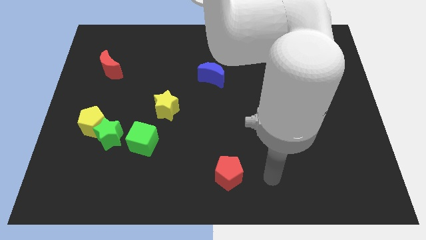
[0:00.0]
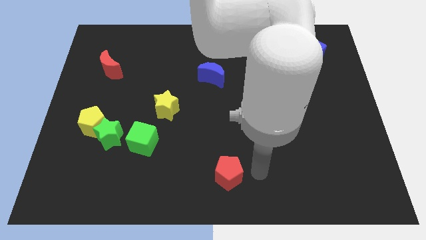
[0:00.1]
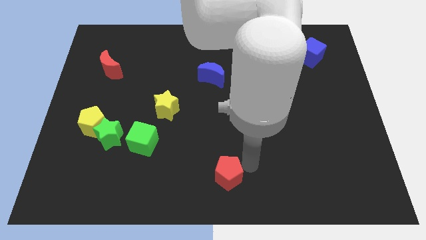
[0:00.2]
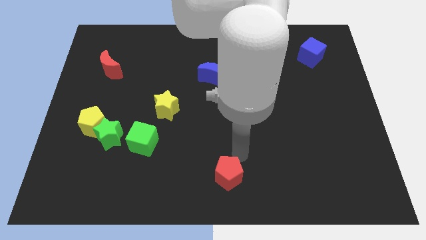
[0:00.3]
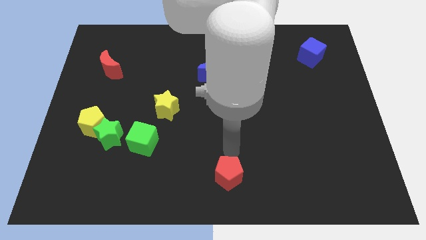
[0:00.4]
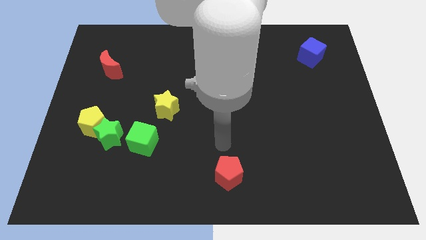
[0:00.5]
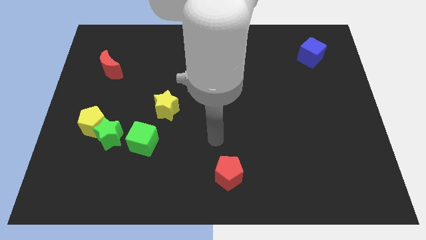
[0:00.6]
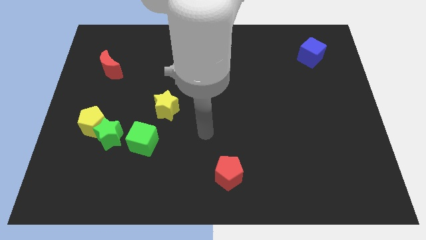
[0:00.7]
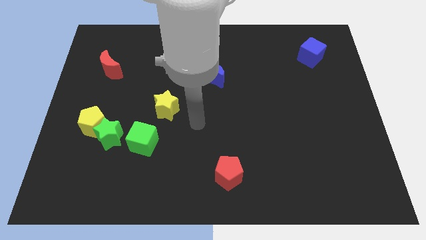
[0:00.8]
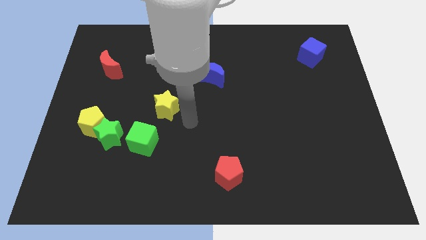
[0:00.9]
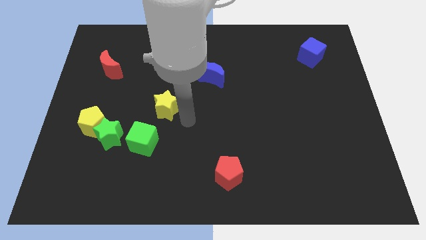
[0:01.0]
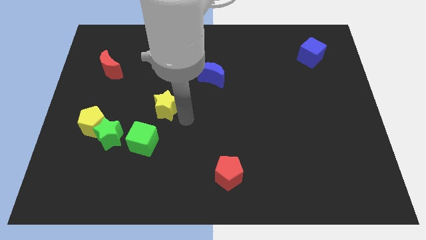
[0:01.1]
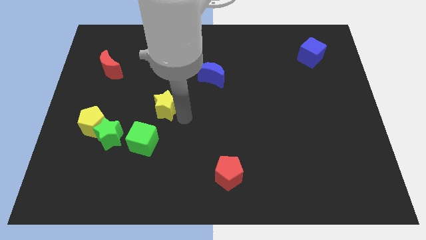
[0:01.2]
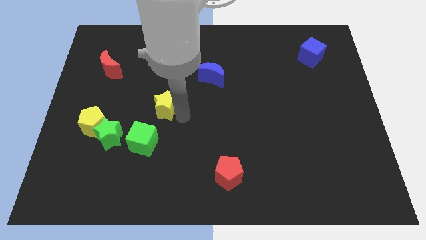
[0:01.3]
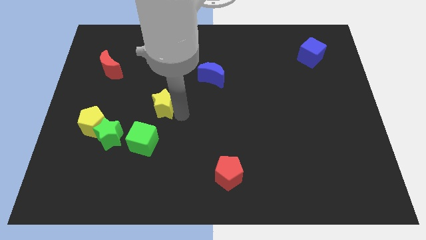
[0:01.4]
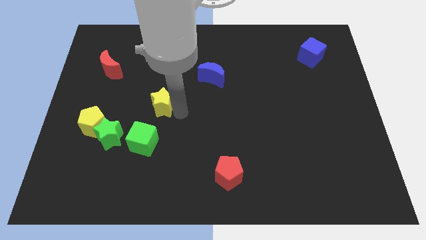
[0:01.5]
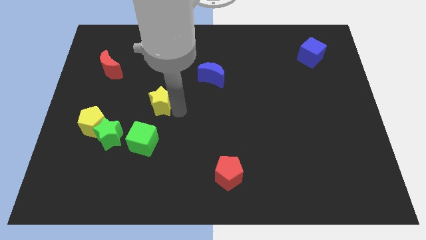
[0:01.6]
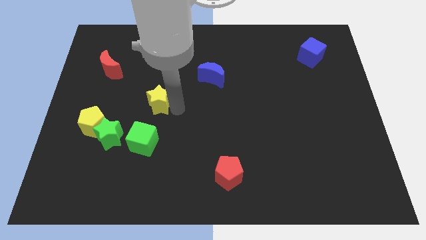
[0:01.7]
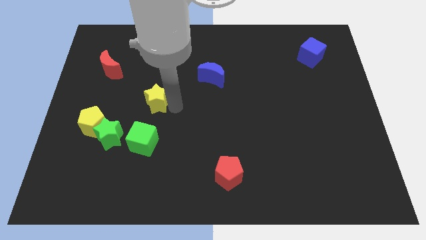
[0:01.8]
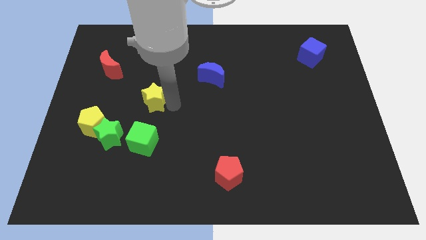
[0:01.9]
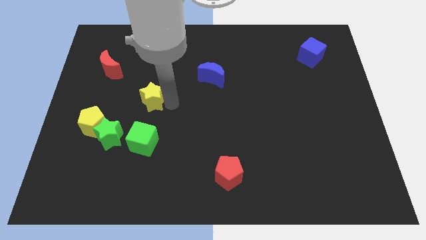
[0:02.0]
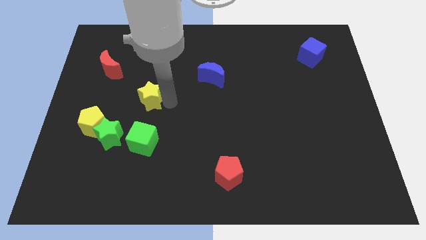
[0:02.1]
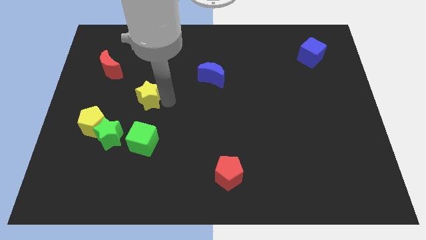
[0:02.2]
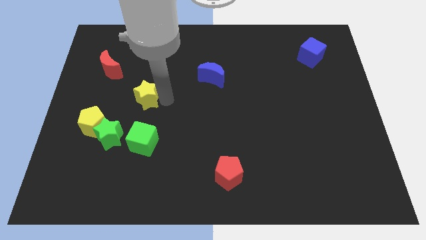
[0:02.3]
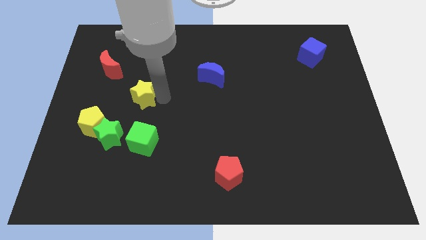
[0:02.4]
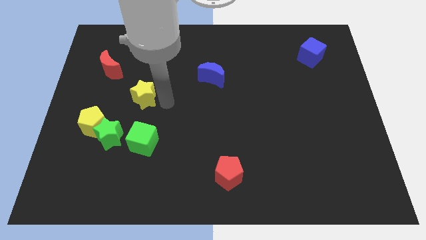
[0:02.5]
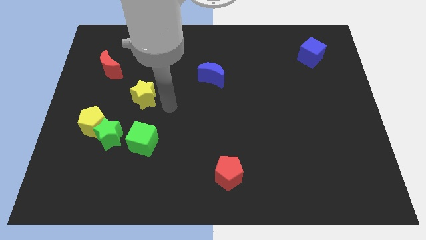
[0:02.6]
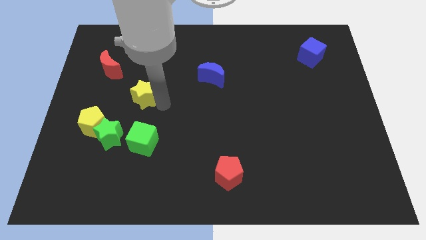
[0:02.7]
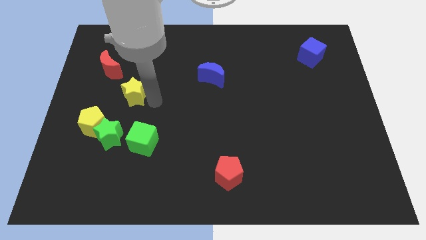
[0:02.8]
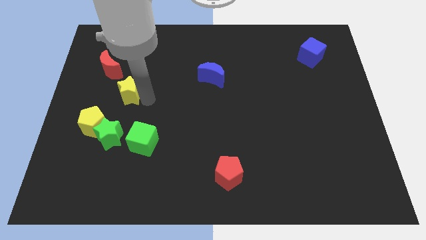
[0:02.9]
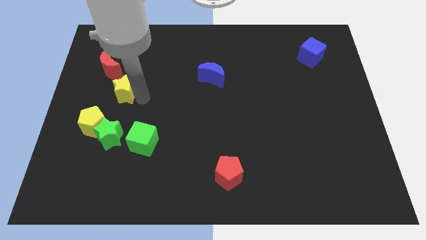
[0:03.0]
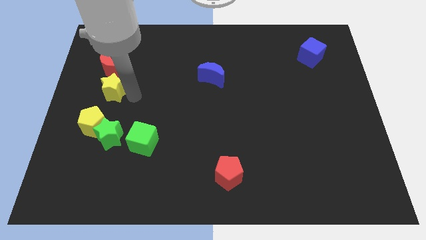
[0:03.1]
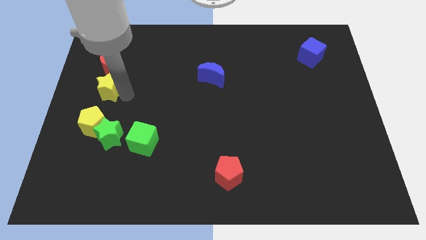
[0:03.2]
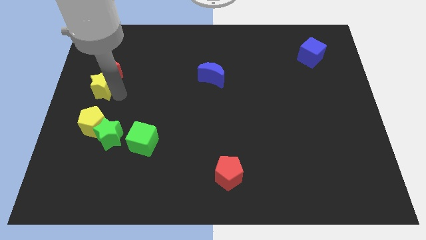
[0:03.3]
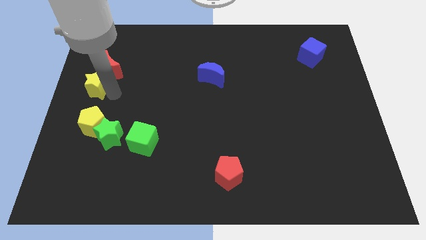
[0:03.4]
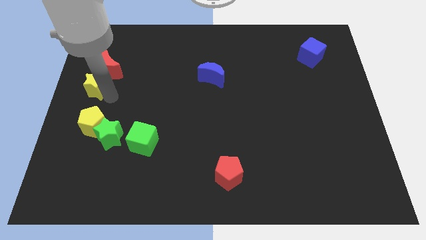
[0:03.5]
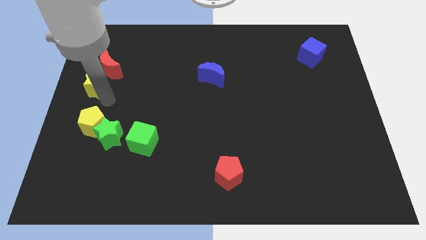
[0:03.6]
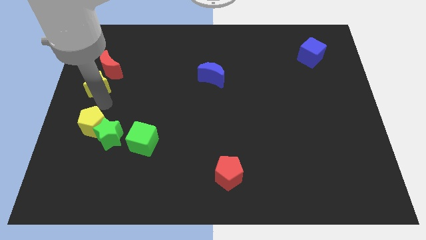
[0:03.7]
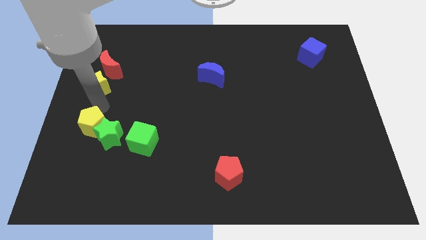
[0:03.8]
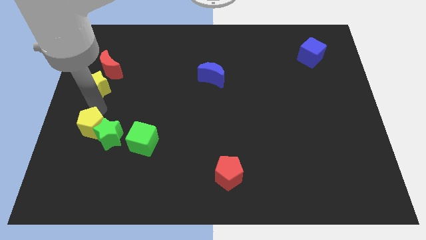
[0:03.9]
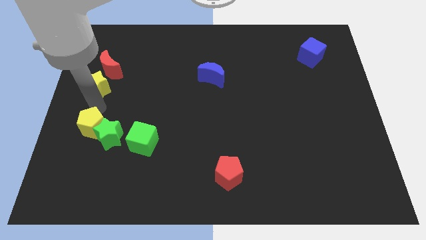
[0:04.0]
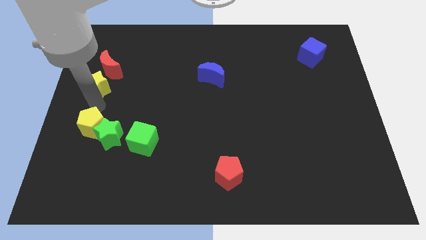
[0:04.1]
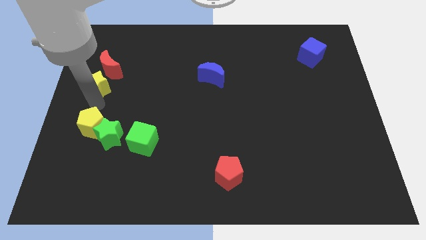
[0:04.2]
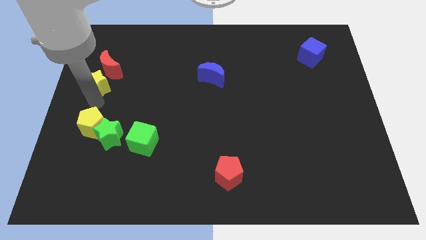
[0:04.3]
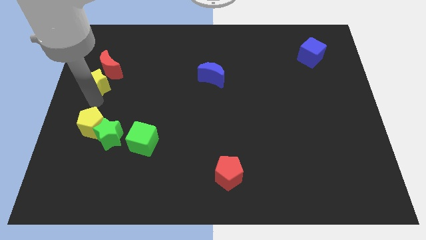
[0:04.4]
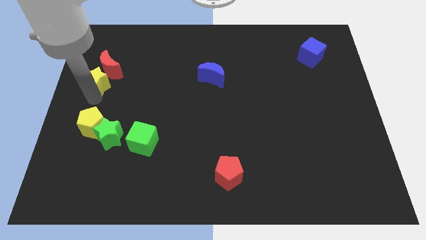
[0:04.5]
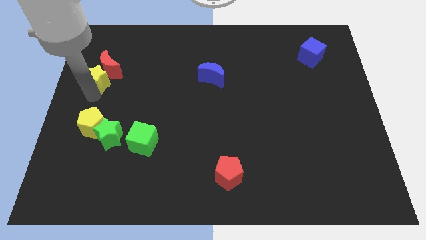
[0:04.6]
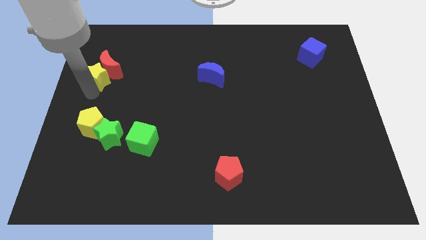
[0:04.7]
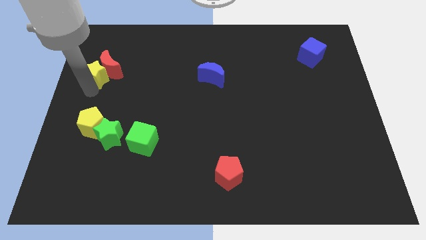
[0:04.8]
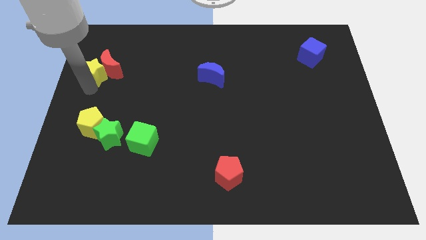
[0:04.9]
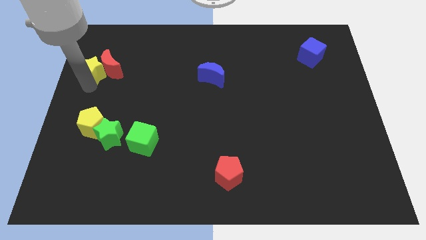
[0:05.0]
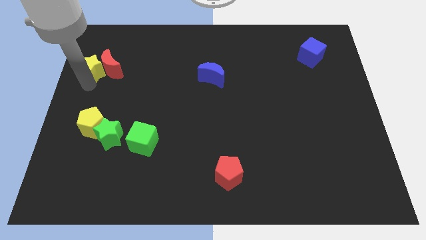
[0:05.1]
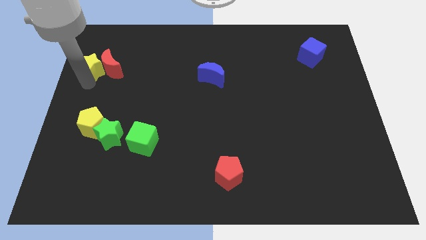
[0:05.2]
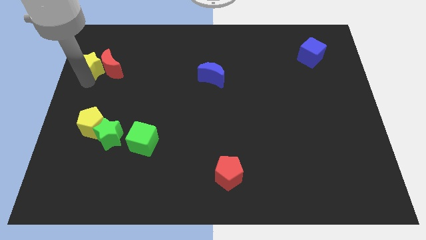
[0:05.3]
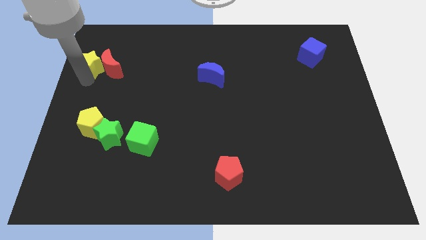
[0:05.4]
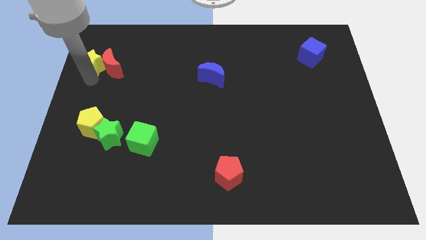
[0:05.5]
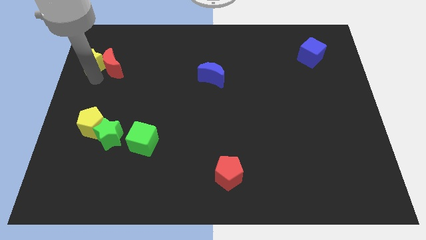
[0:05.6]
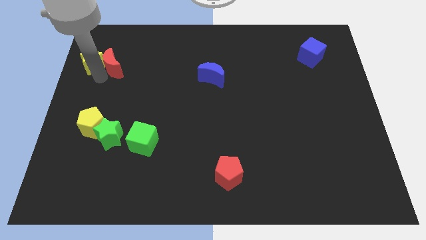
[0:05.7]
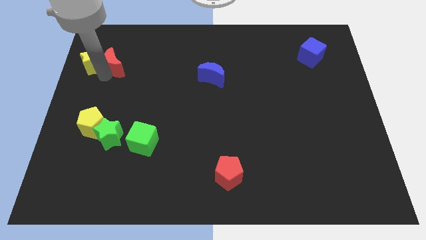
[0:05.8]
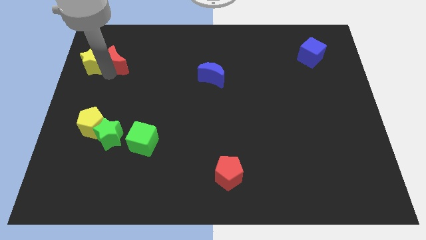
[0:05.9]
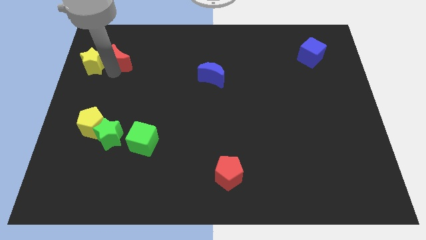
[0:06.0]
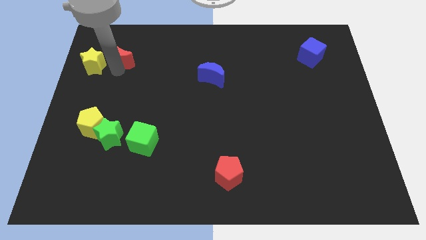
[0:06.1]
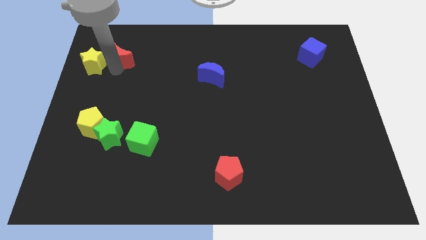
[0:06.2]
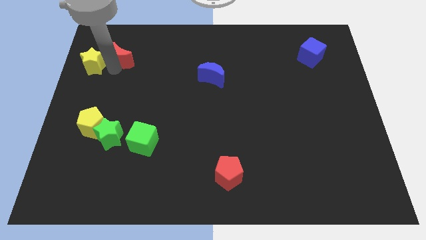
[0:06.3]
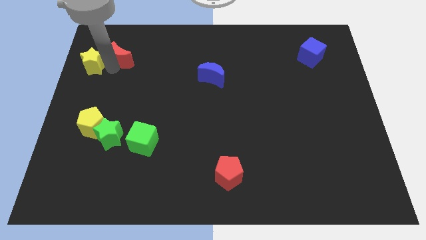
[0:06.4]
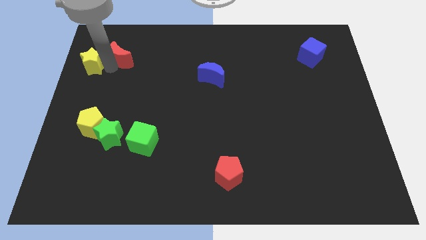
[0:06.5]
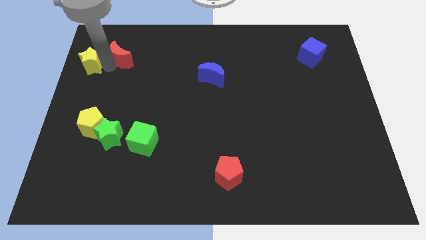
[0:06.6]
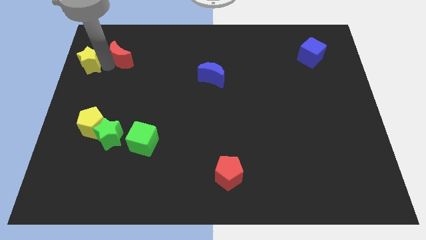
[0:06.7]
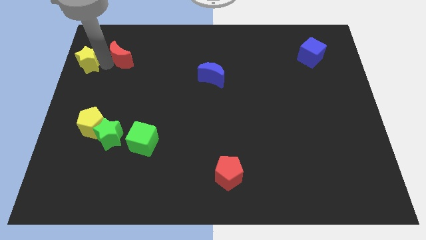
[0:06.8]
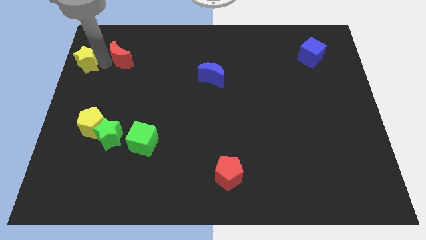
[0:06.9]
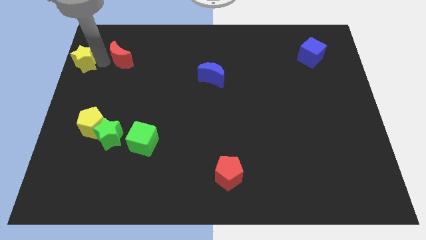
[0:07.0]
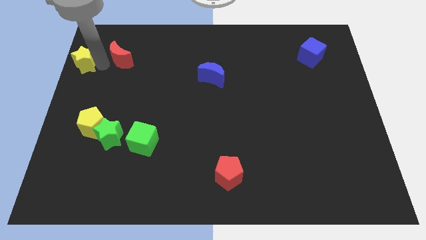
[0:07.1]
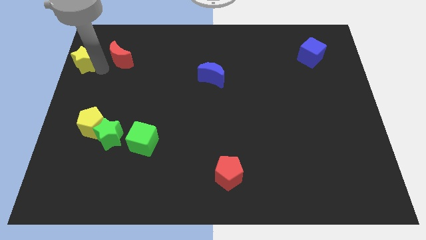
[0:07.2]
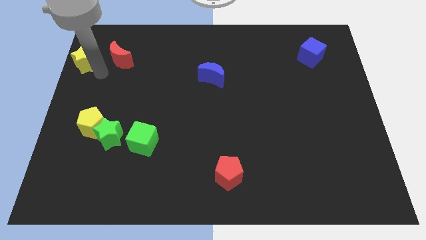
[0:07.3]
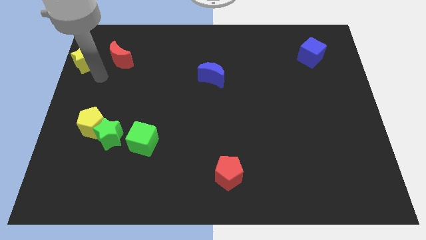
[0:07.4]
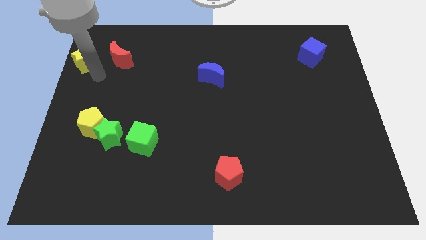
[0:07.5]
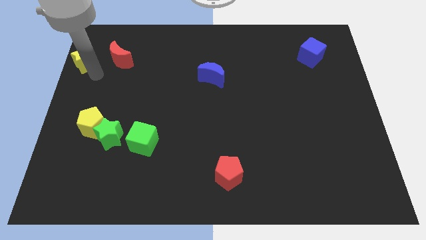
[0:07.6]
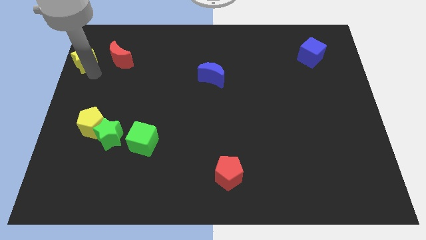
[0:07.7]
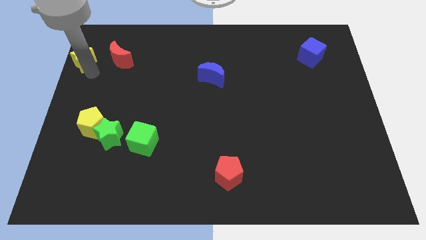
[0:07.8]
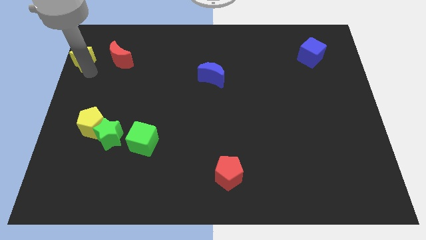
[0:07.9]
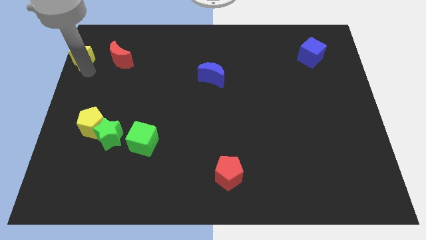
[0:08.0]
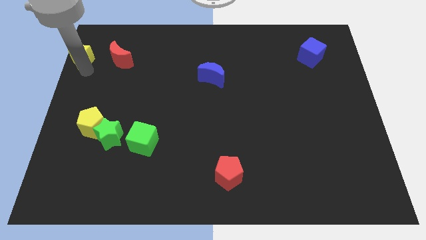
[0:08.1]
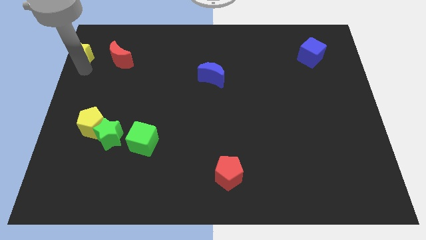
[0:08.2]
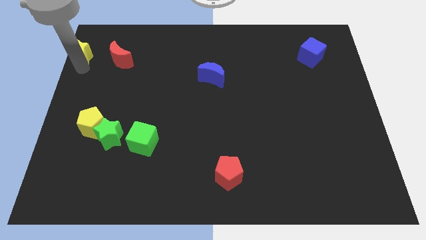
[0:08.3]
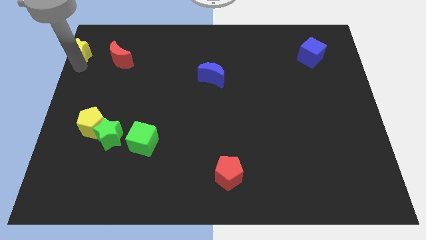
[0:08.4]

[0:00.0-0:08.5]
slide the yellow star to the top left corner
